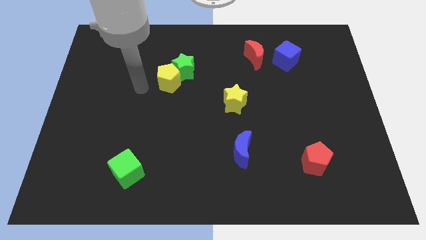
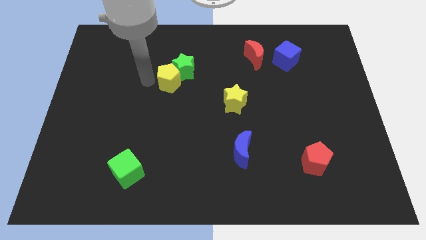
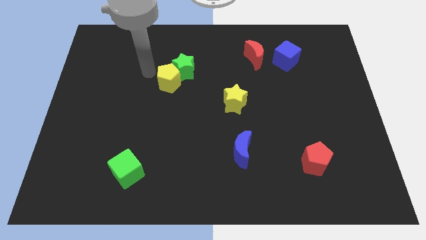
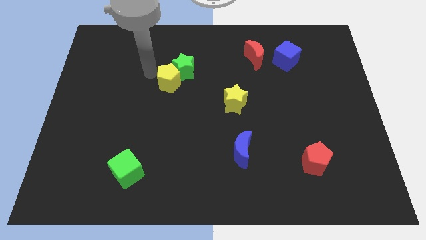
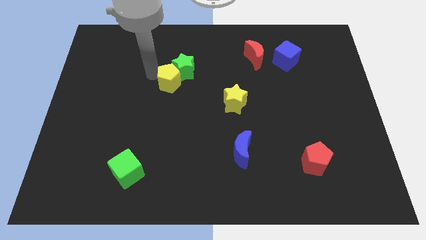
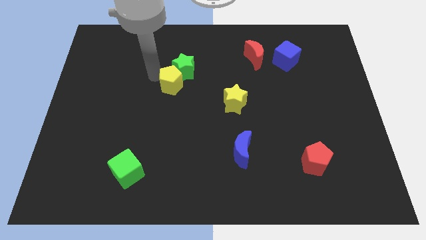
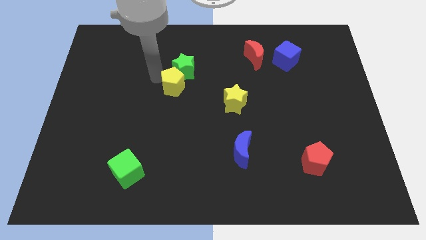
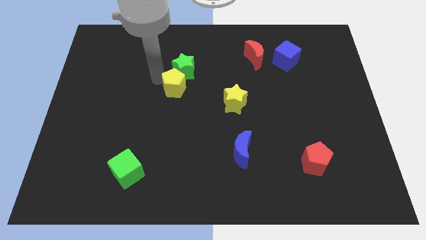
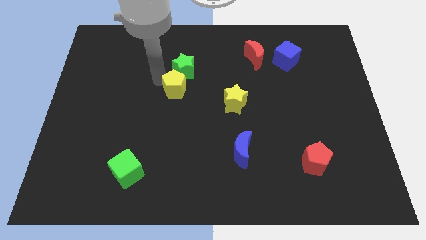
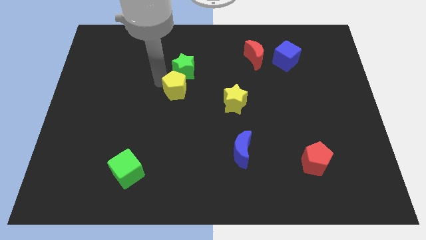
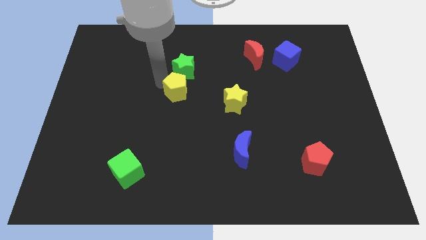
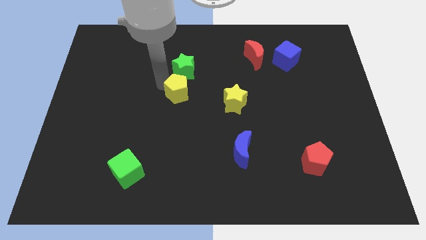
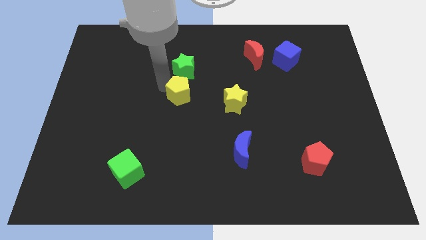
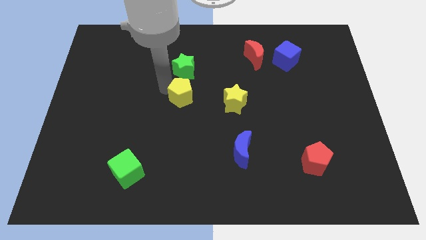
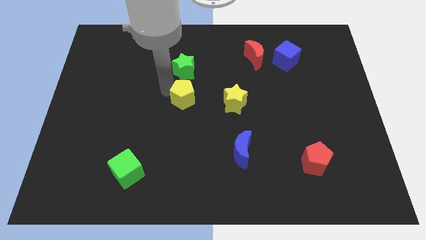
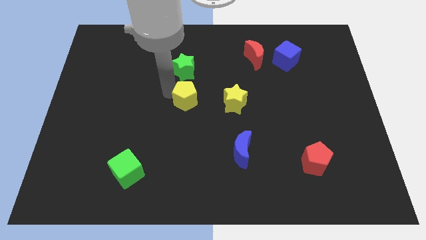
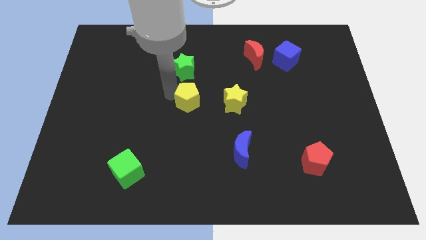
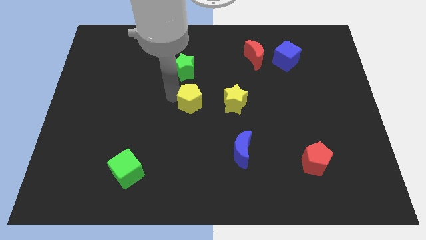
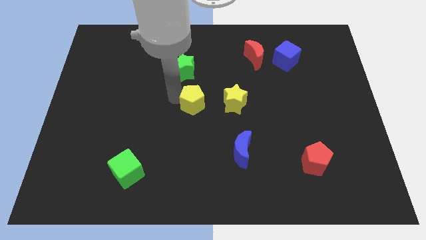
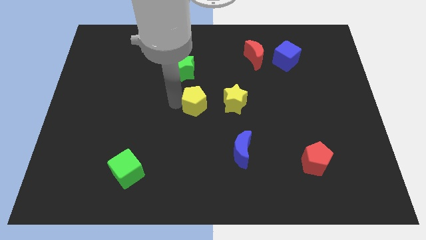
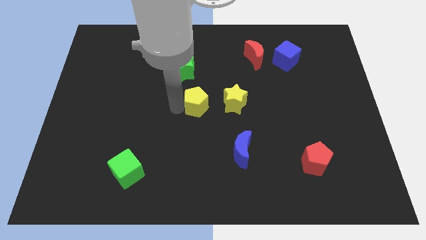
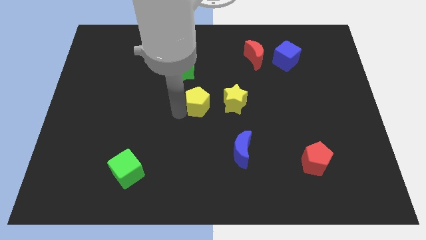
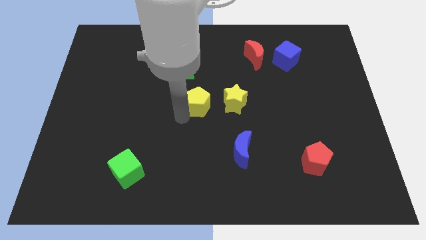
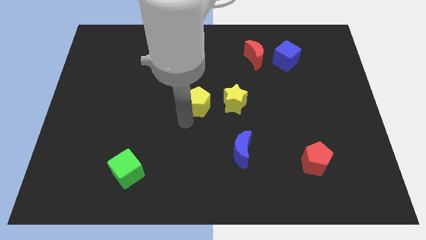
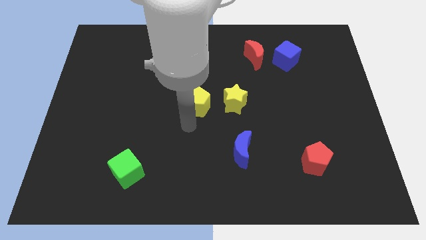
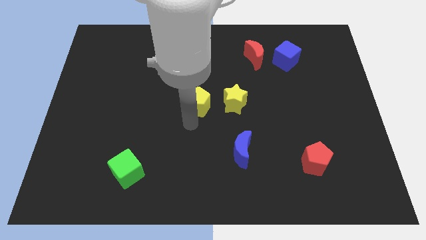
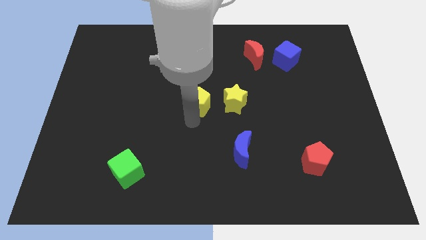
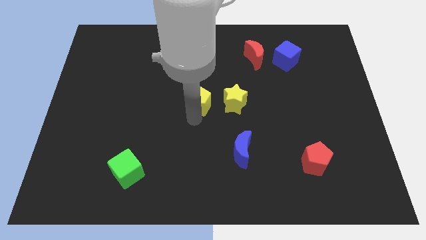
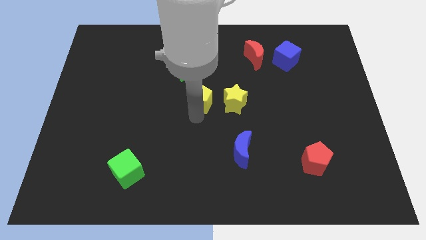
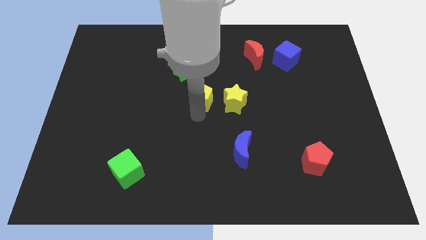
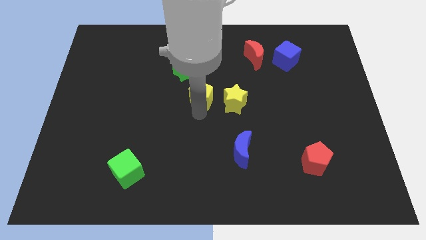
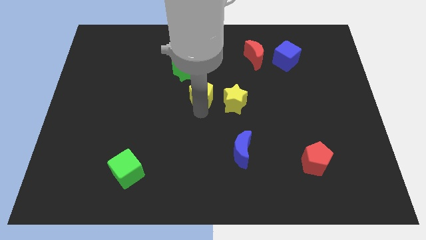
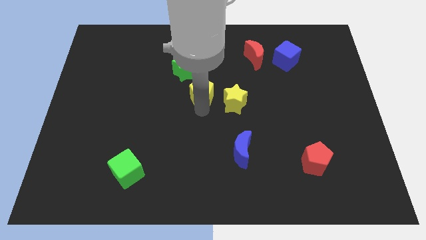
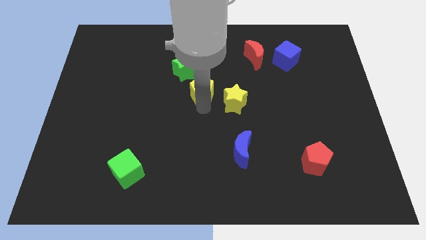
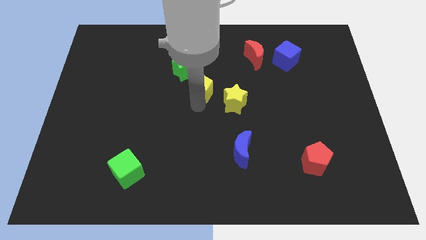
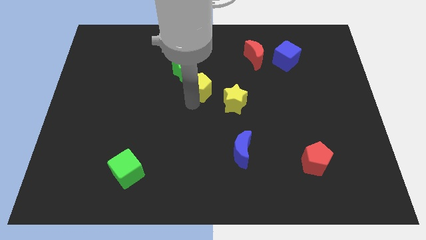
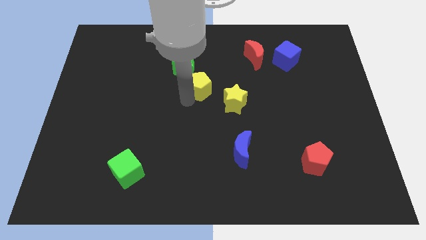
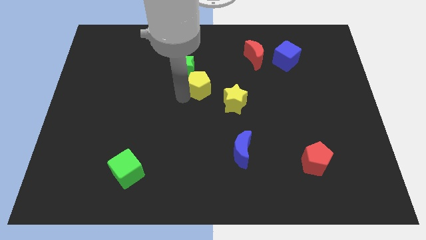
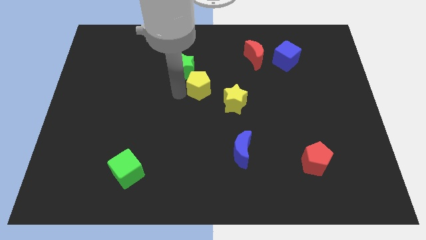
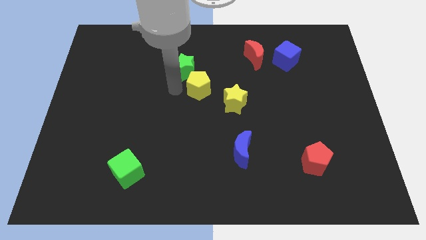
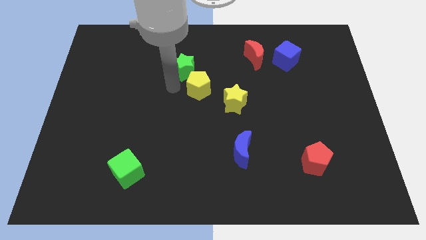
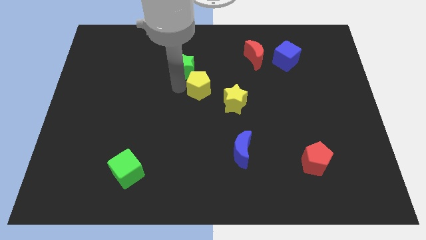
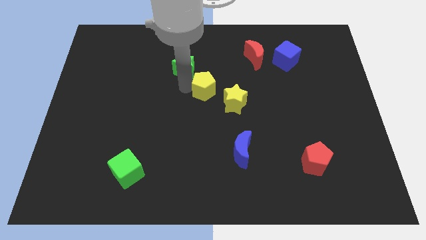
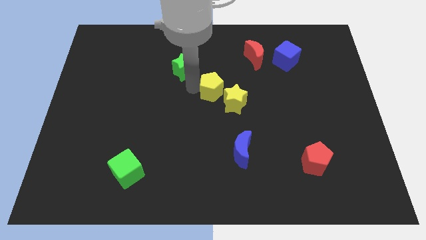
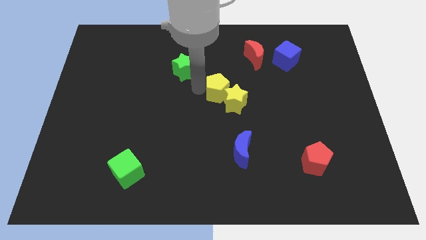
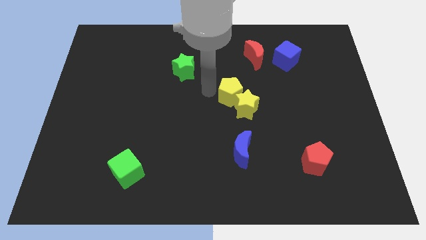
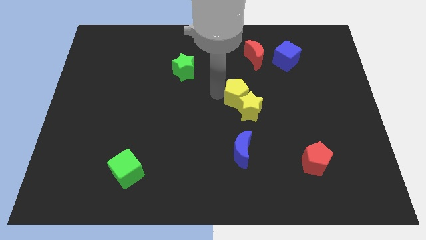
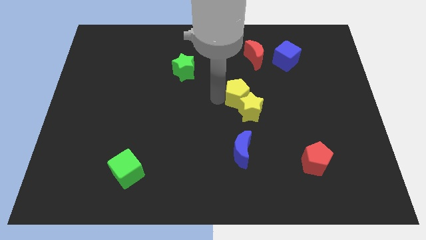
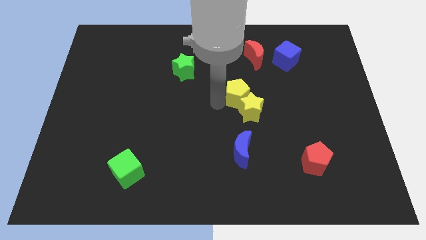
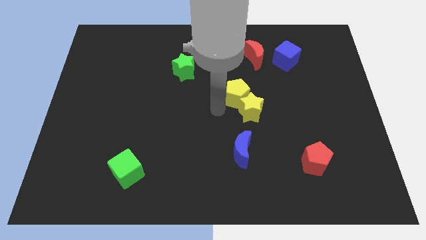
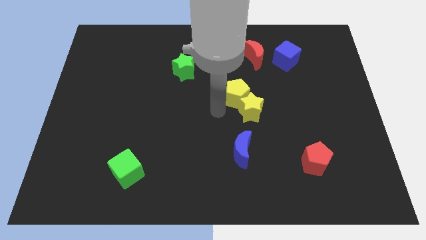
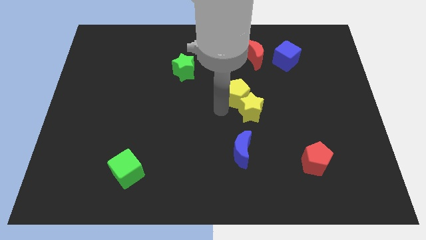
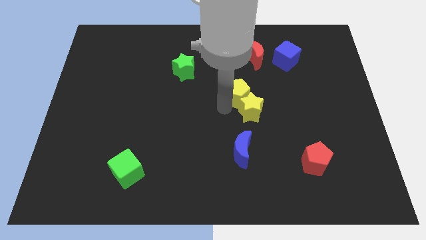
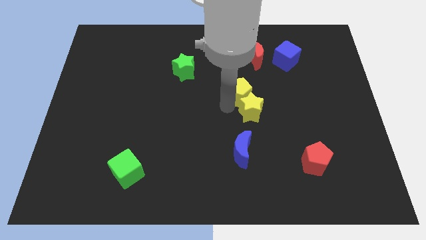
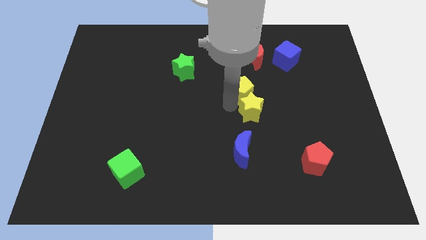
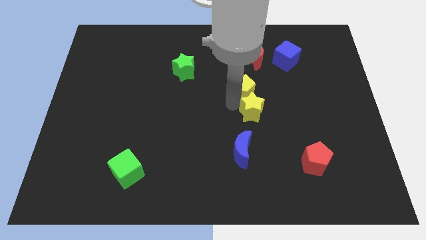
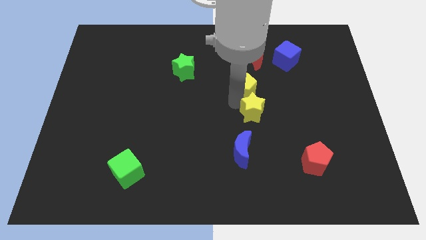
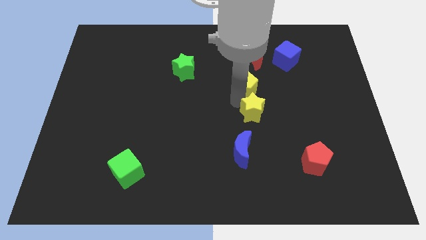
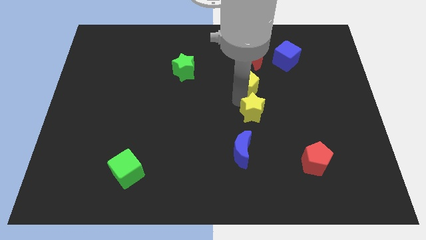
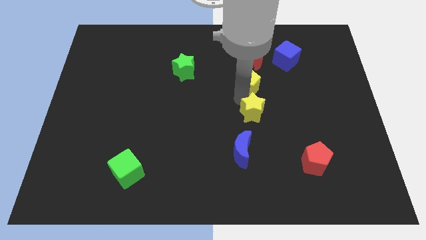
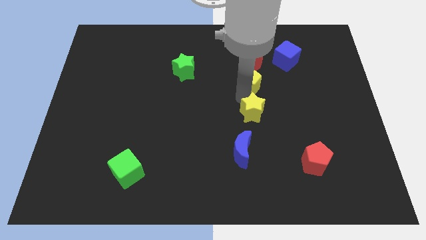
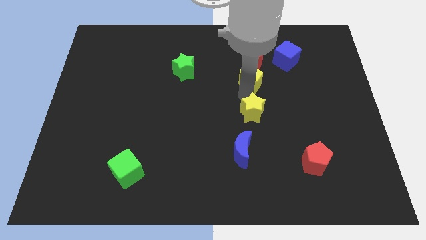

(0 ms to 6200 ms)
slide the yellow pentagon to the right

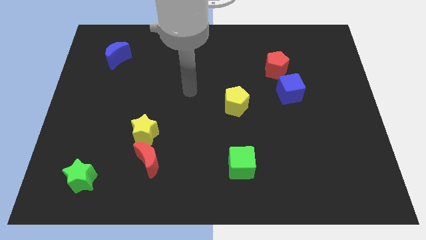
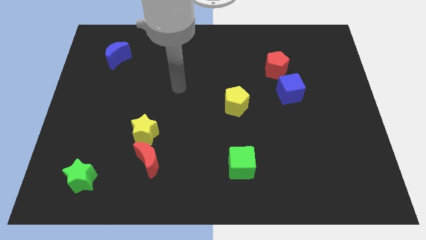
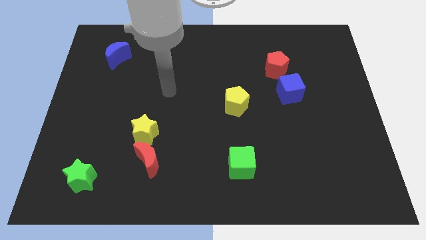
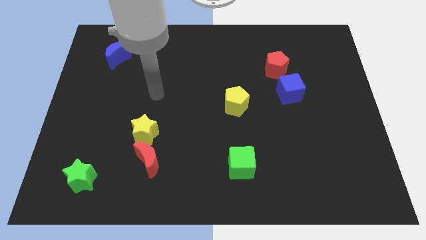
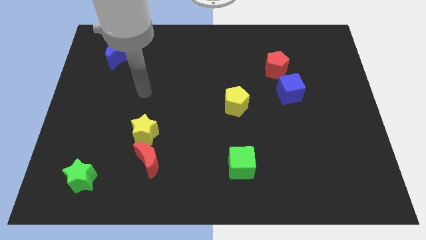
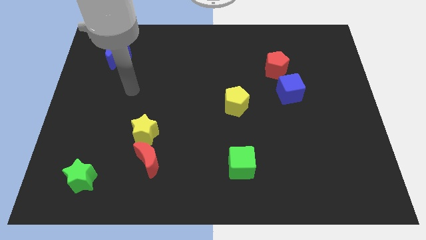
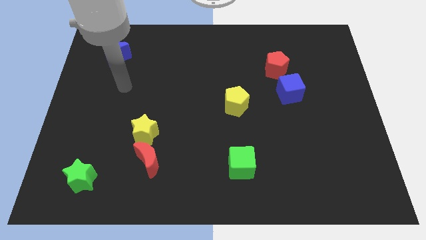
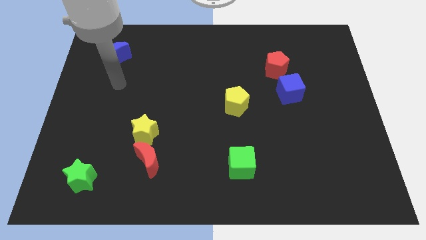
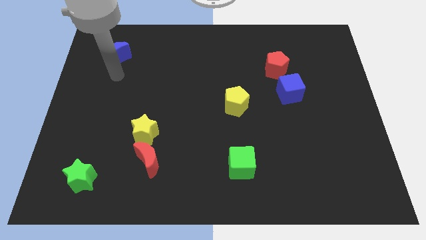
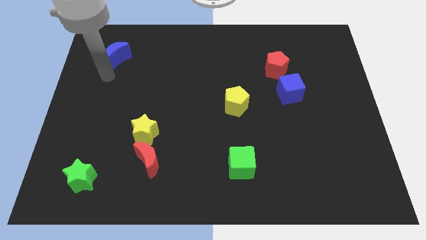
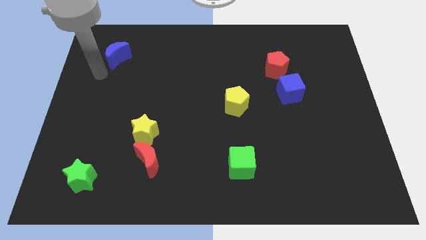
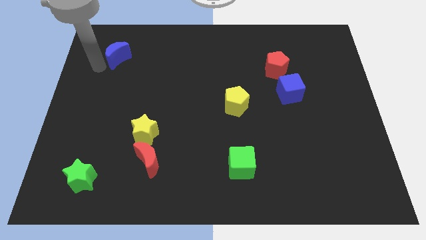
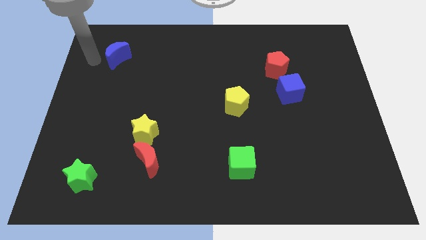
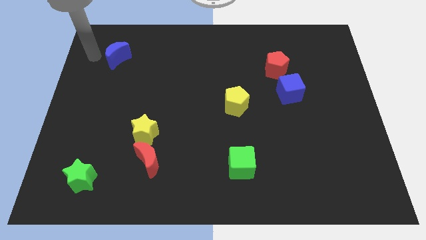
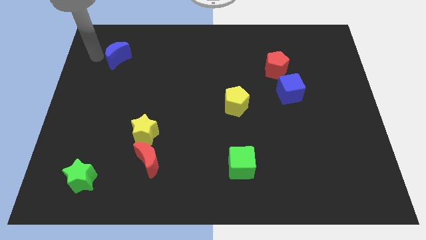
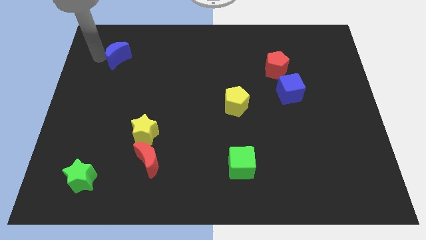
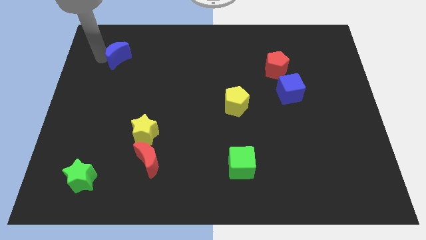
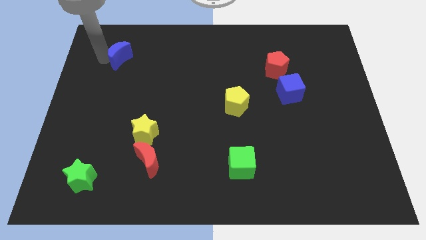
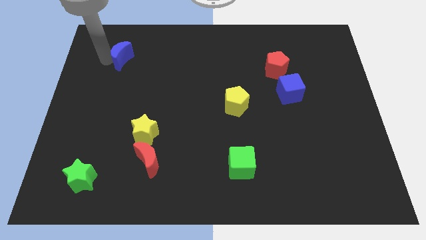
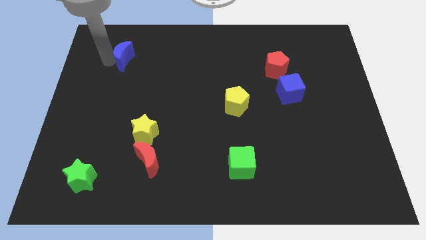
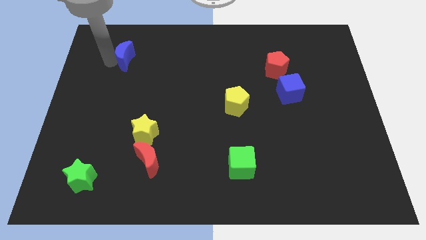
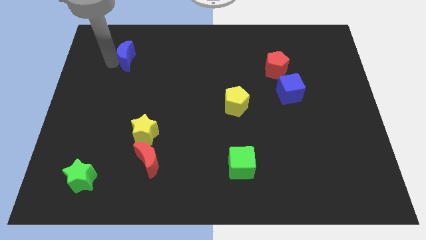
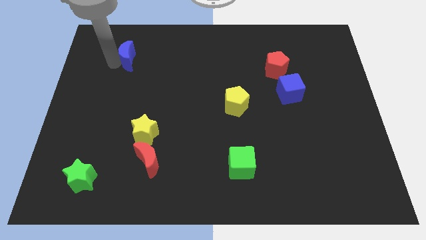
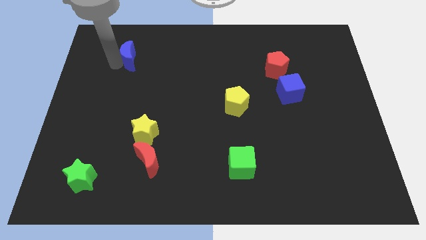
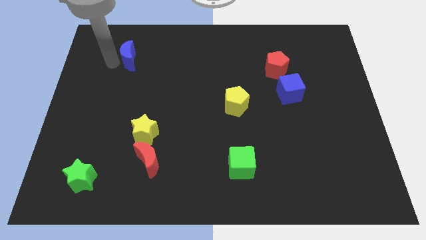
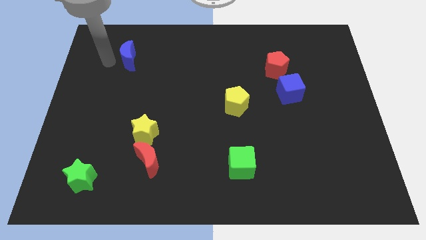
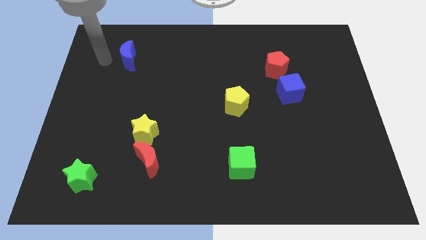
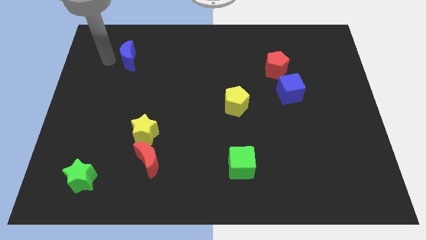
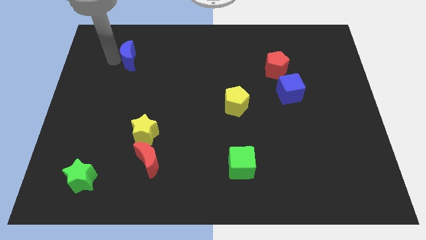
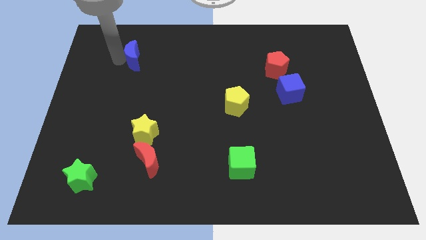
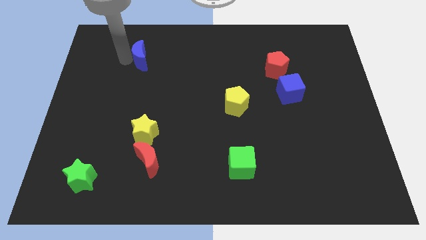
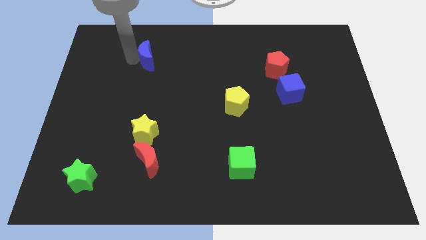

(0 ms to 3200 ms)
move the blue moon to the right slightly
